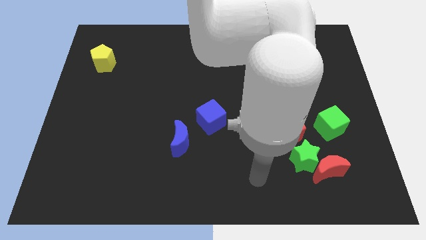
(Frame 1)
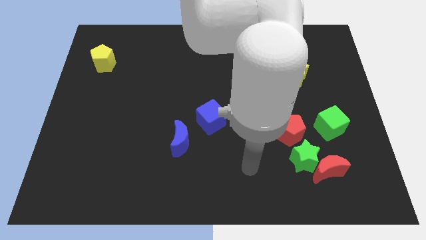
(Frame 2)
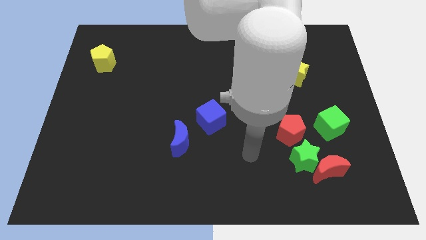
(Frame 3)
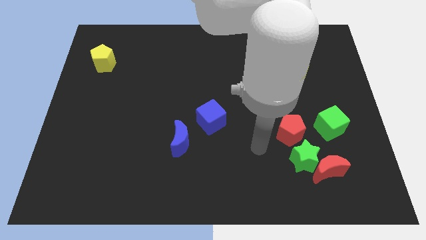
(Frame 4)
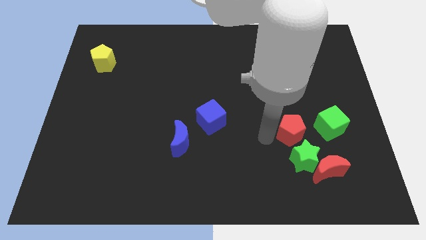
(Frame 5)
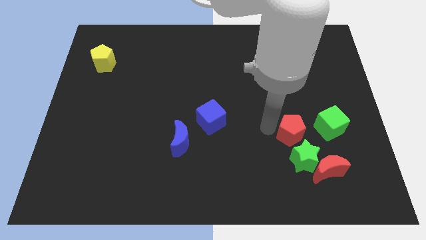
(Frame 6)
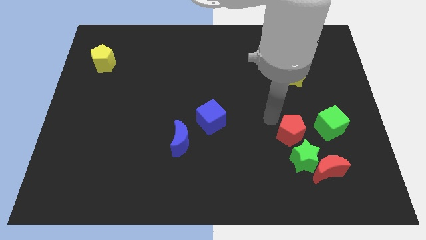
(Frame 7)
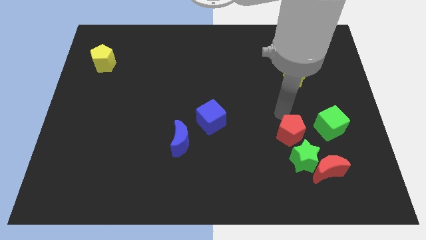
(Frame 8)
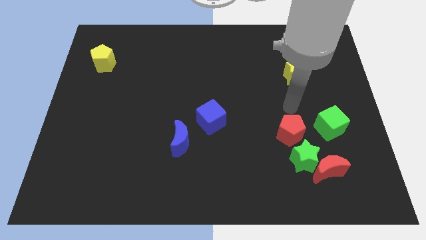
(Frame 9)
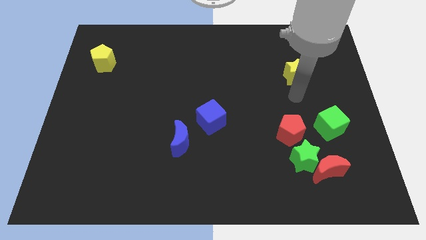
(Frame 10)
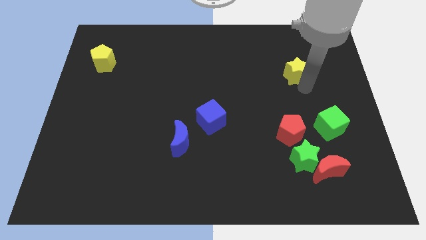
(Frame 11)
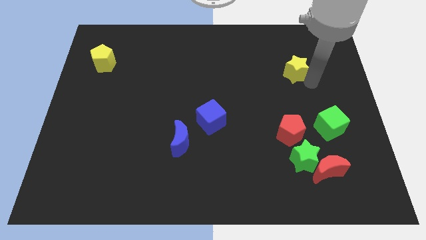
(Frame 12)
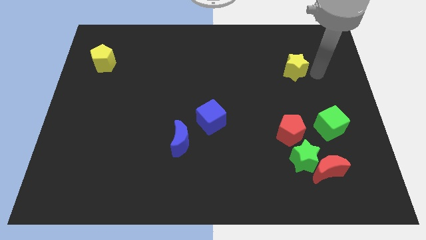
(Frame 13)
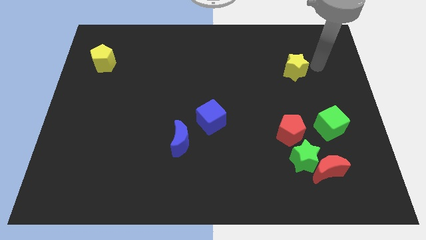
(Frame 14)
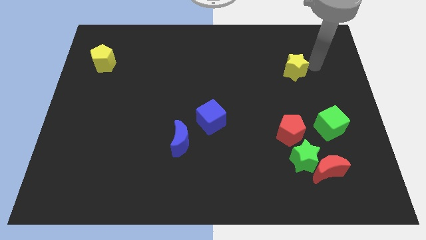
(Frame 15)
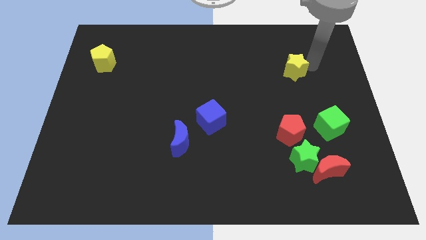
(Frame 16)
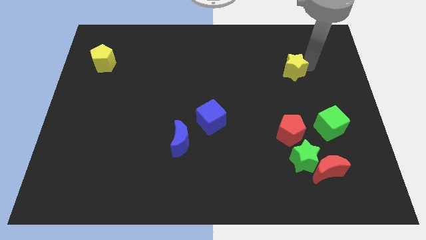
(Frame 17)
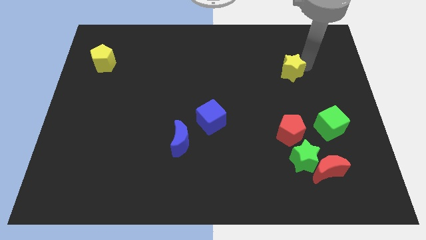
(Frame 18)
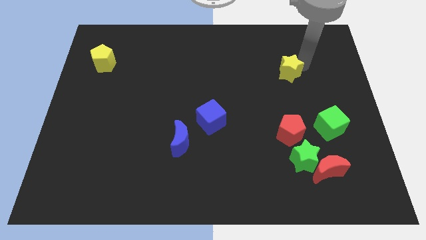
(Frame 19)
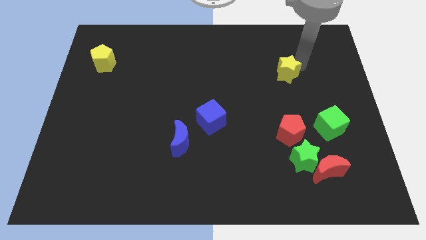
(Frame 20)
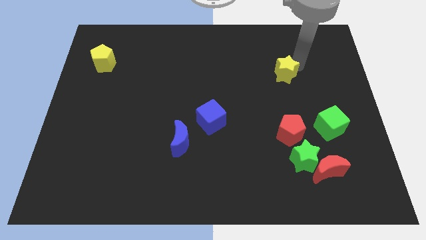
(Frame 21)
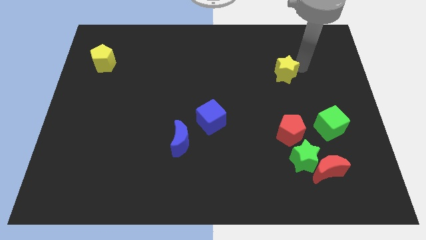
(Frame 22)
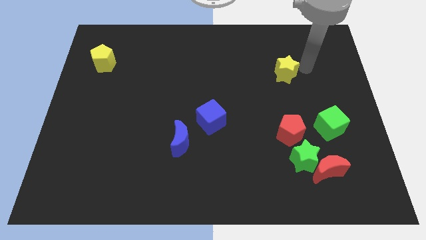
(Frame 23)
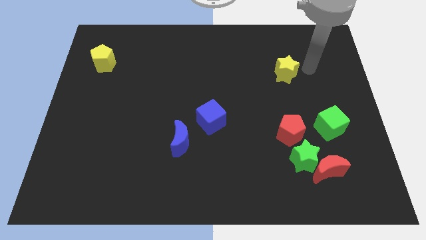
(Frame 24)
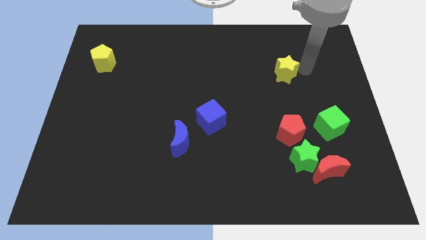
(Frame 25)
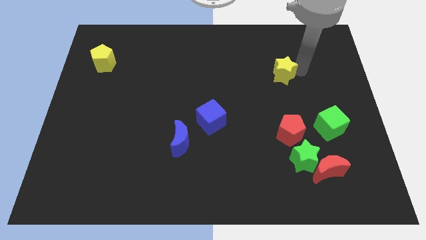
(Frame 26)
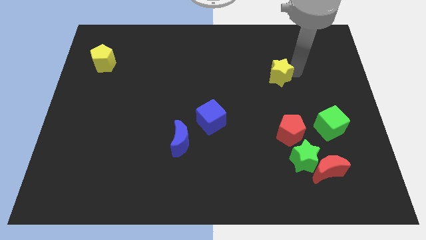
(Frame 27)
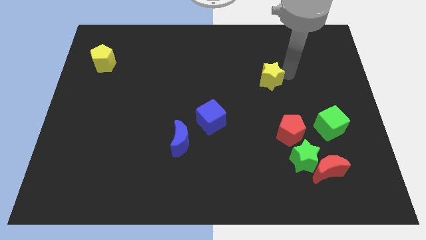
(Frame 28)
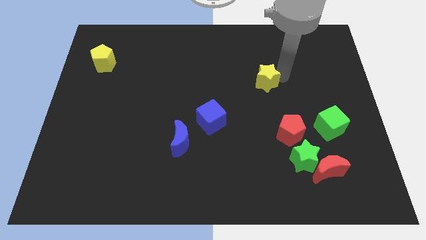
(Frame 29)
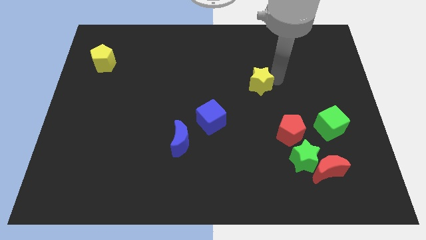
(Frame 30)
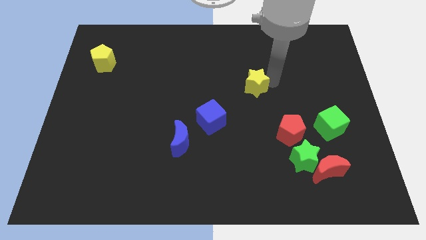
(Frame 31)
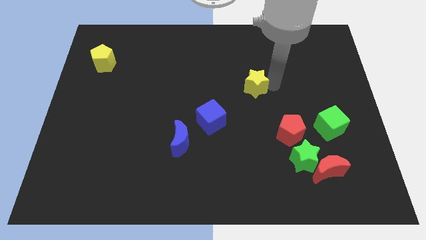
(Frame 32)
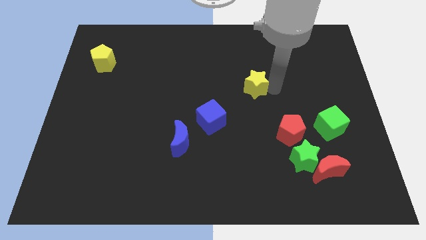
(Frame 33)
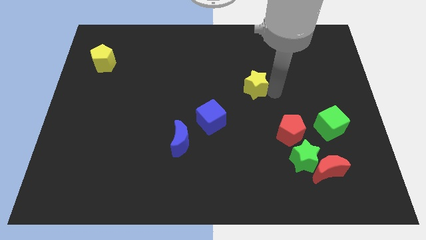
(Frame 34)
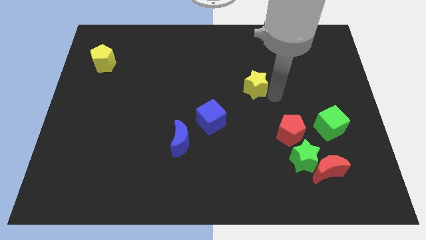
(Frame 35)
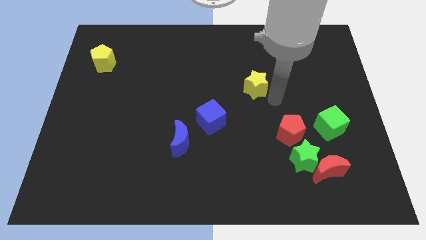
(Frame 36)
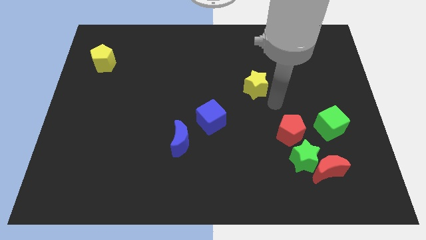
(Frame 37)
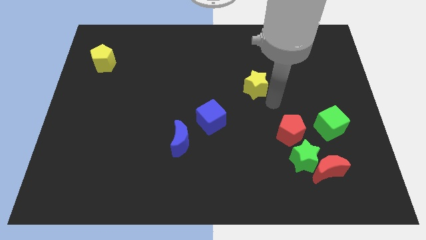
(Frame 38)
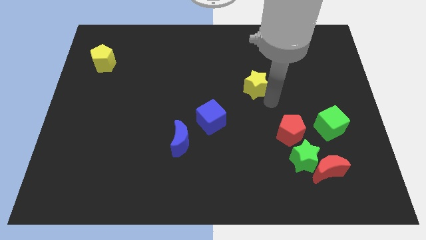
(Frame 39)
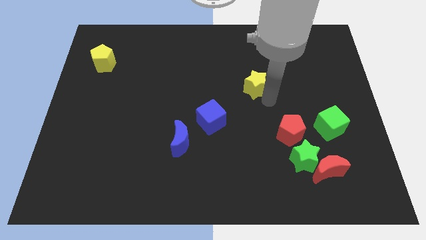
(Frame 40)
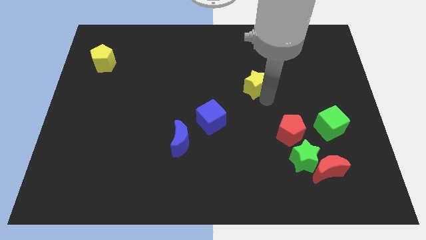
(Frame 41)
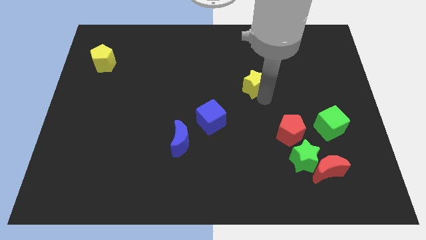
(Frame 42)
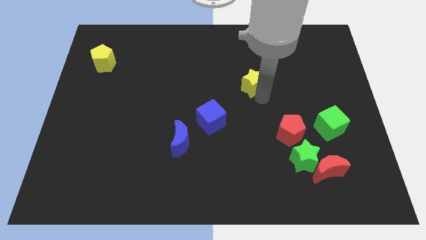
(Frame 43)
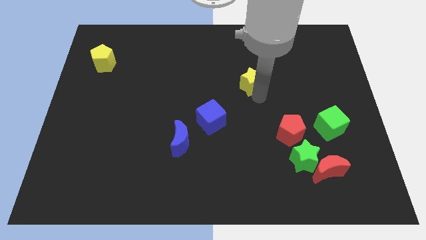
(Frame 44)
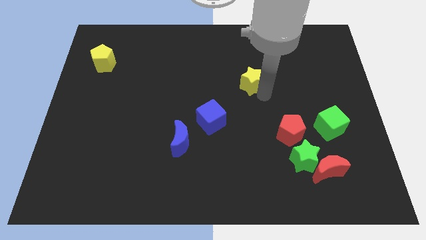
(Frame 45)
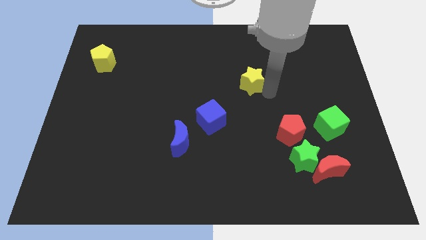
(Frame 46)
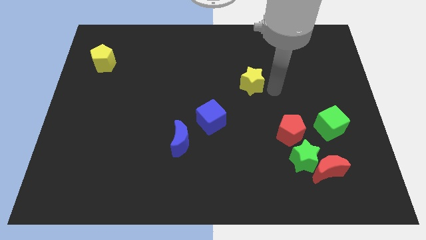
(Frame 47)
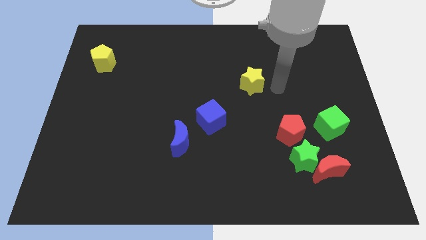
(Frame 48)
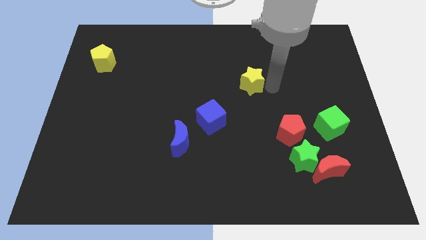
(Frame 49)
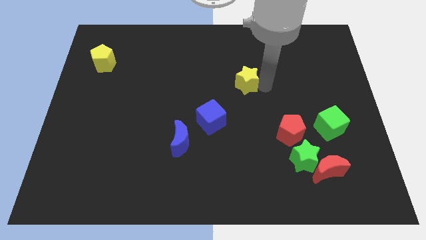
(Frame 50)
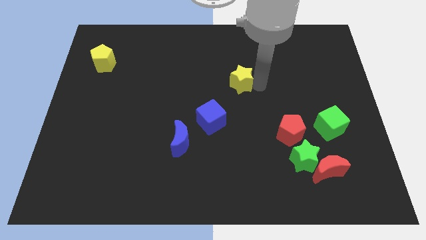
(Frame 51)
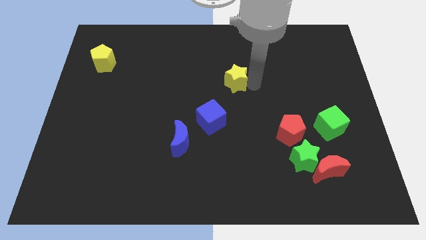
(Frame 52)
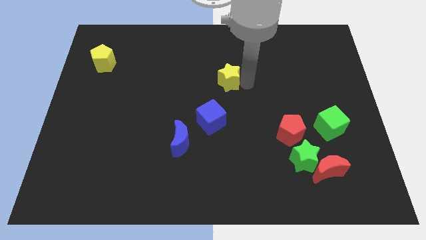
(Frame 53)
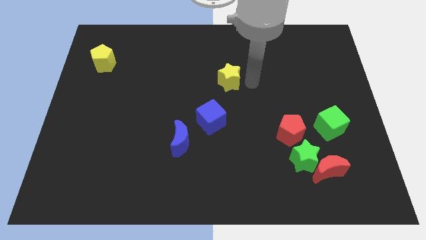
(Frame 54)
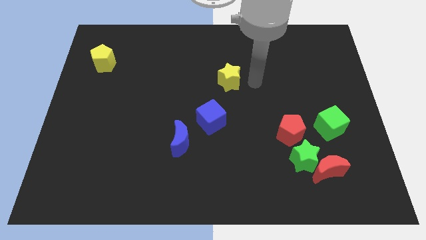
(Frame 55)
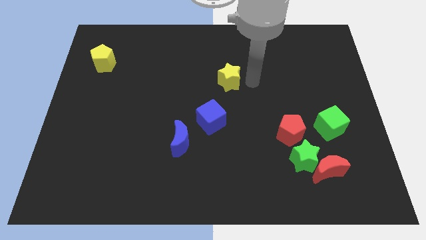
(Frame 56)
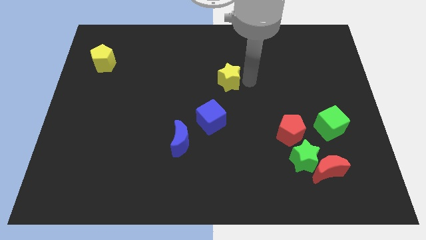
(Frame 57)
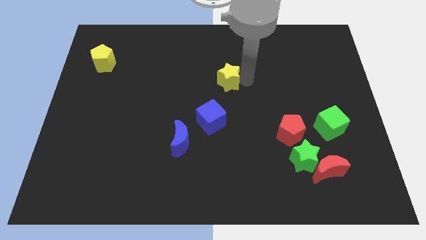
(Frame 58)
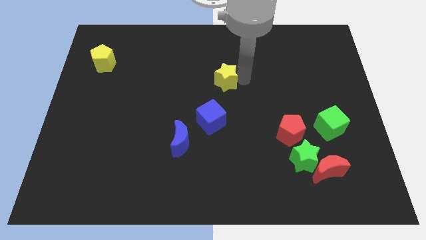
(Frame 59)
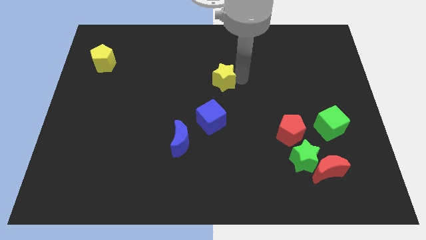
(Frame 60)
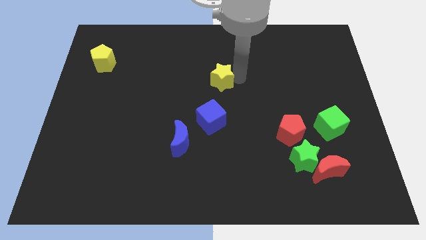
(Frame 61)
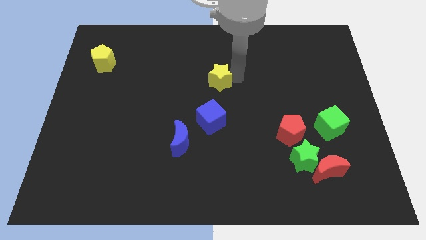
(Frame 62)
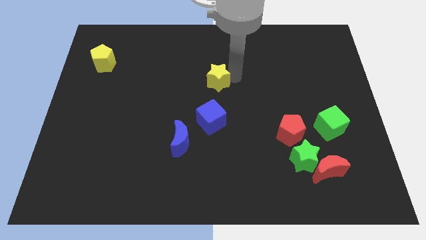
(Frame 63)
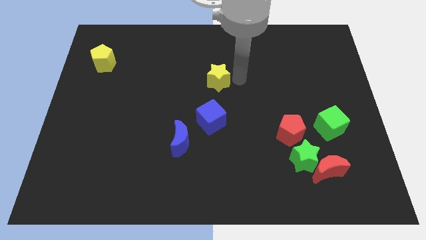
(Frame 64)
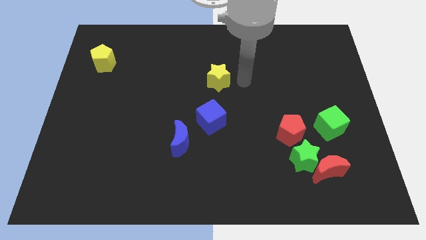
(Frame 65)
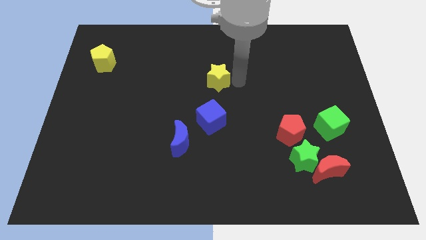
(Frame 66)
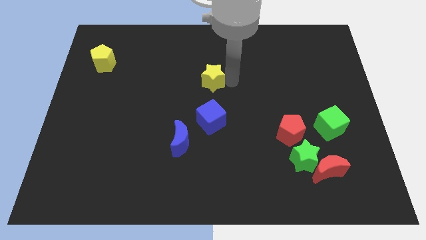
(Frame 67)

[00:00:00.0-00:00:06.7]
slide the yellow star left

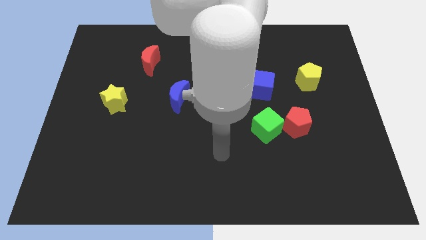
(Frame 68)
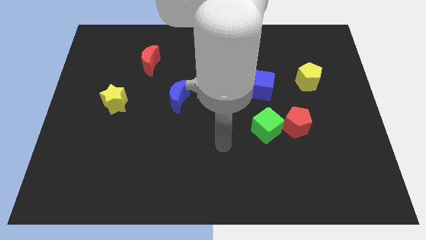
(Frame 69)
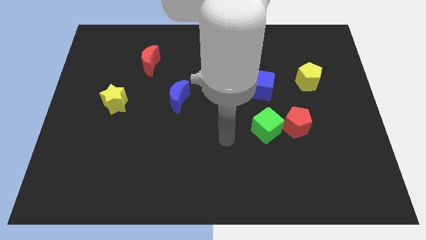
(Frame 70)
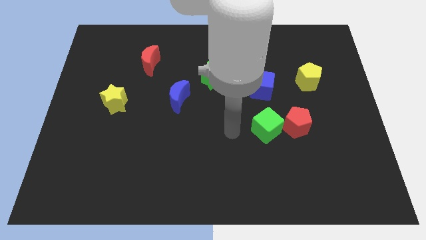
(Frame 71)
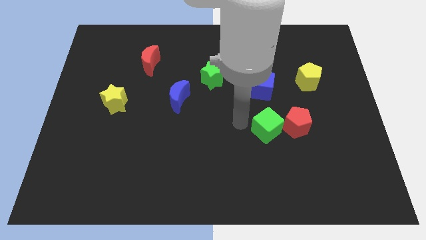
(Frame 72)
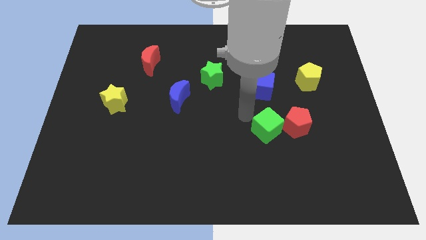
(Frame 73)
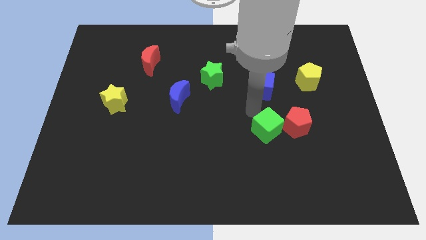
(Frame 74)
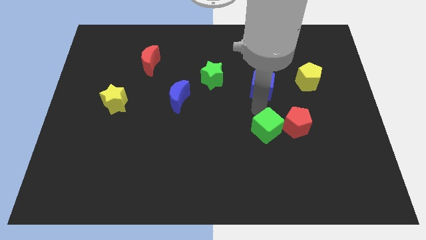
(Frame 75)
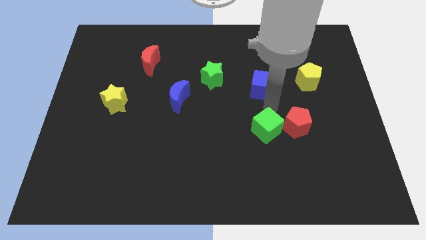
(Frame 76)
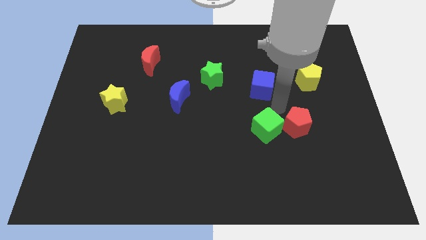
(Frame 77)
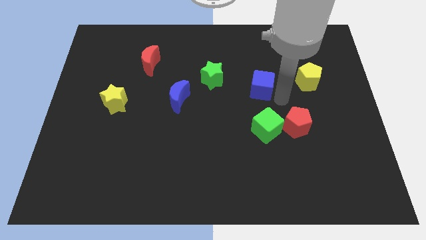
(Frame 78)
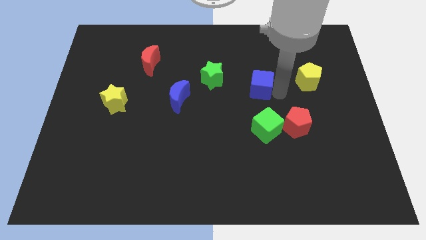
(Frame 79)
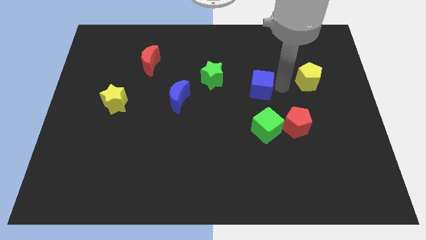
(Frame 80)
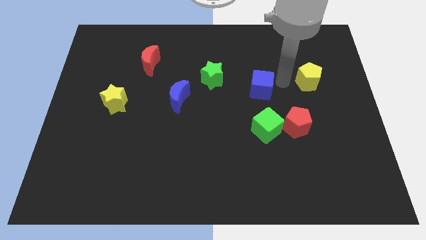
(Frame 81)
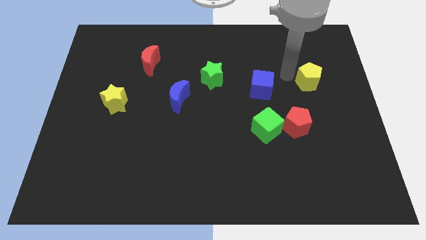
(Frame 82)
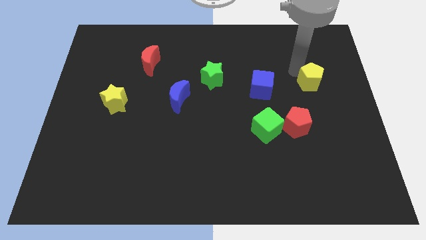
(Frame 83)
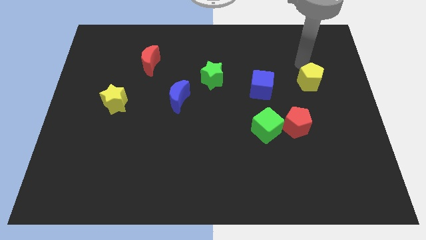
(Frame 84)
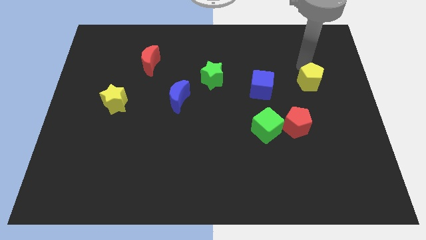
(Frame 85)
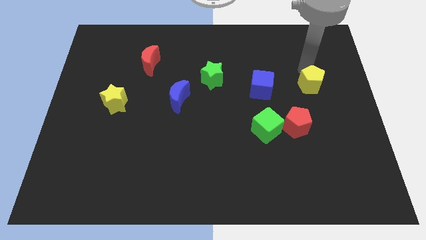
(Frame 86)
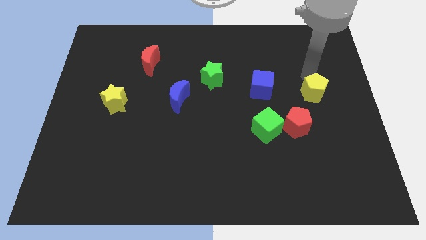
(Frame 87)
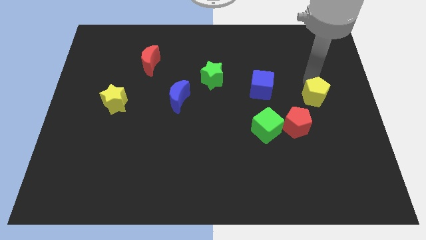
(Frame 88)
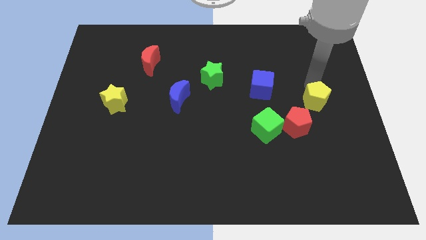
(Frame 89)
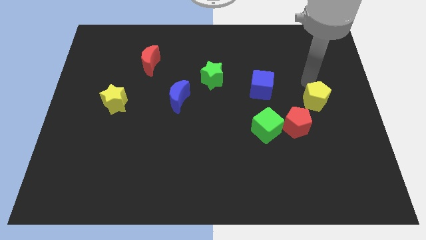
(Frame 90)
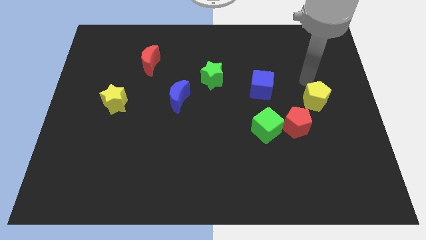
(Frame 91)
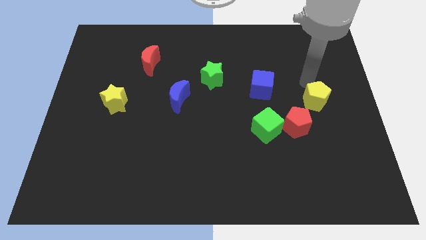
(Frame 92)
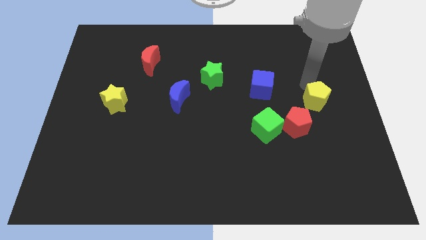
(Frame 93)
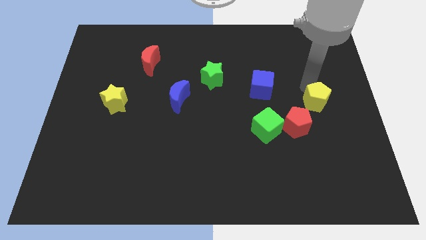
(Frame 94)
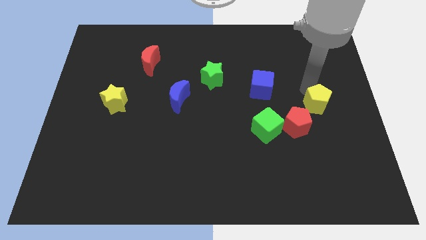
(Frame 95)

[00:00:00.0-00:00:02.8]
push the yellow pentagon down slightly
